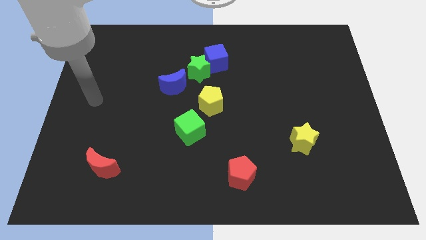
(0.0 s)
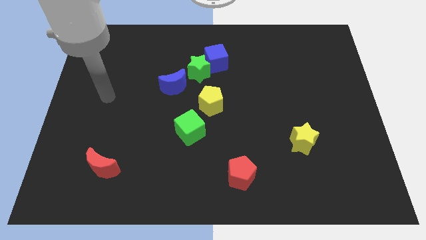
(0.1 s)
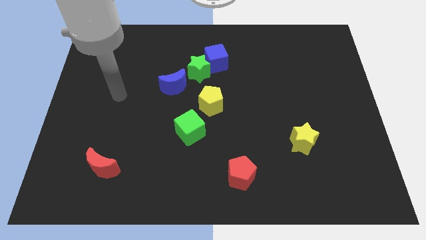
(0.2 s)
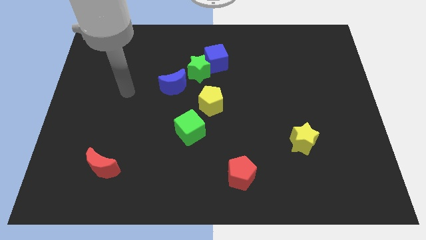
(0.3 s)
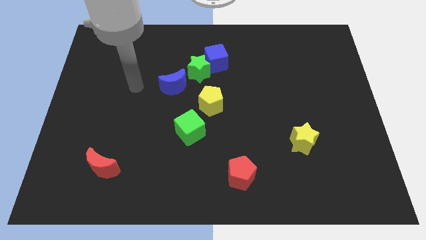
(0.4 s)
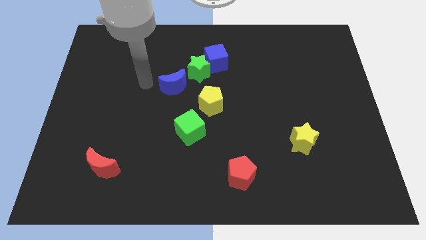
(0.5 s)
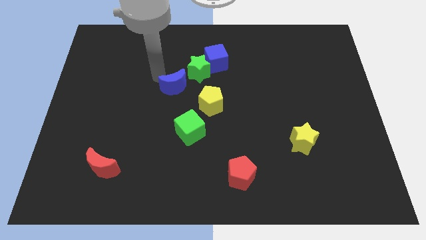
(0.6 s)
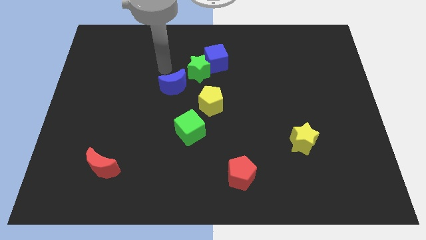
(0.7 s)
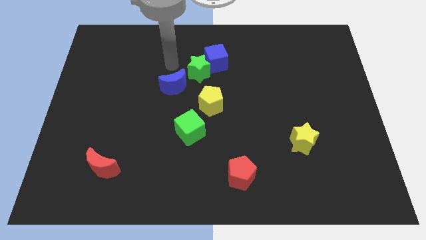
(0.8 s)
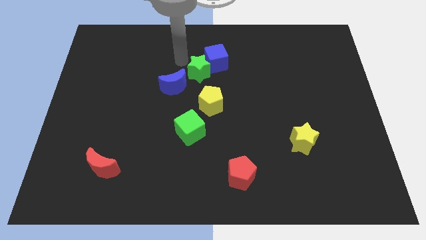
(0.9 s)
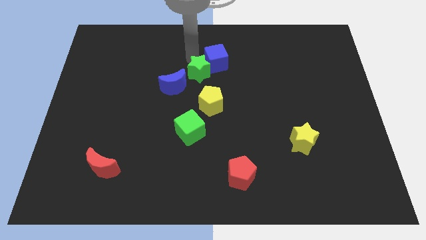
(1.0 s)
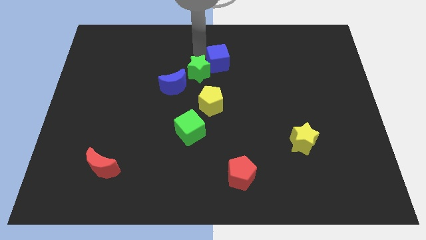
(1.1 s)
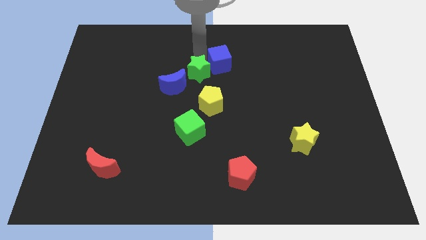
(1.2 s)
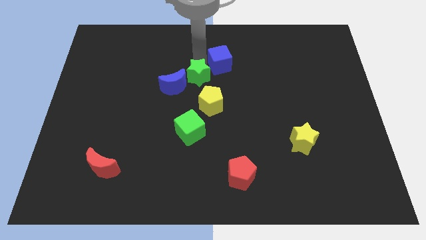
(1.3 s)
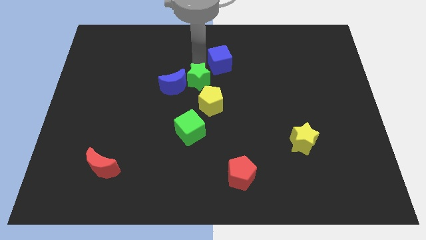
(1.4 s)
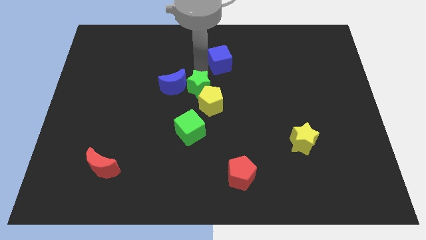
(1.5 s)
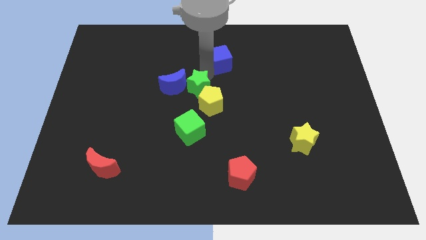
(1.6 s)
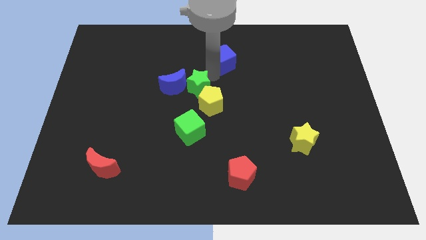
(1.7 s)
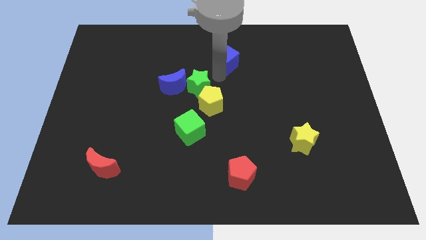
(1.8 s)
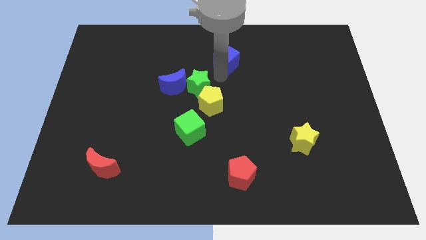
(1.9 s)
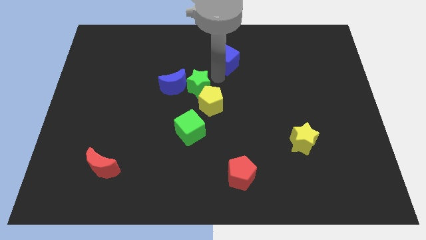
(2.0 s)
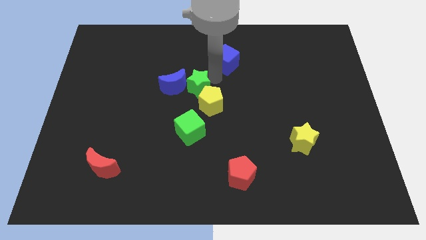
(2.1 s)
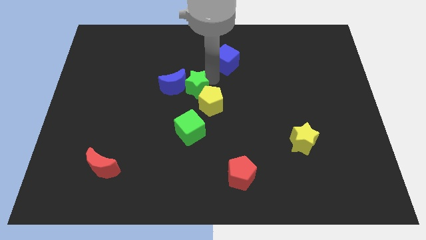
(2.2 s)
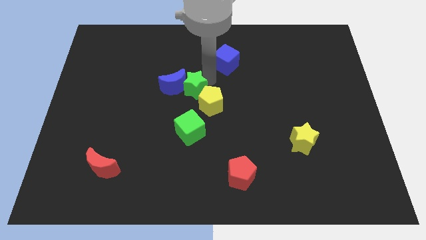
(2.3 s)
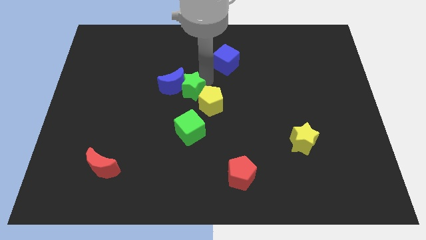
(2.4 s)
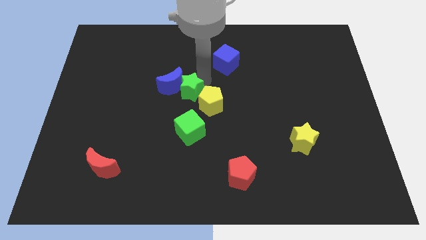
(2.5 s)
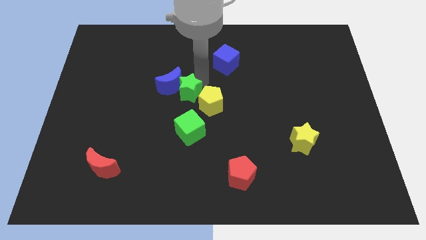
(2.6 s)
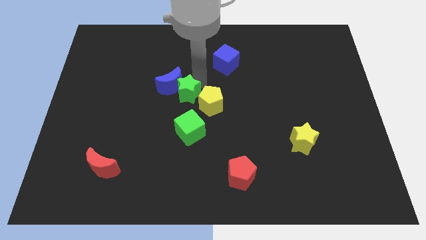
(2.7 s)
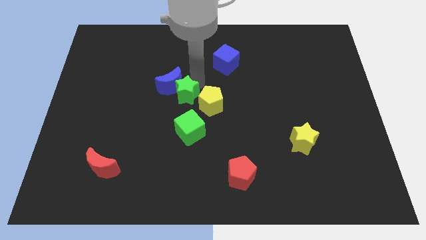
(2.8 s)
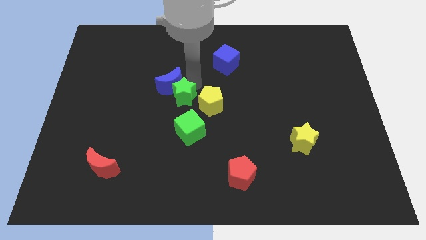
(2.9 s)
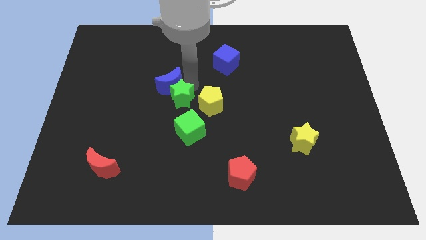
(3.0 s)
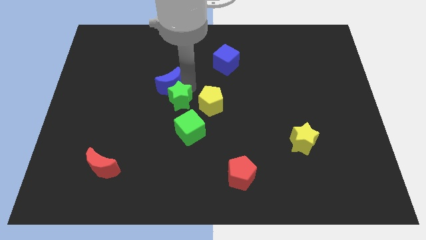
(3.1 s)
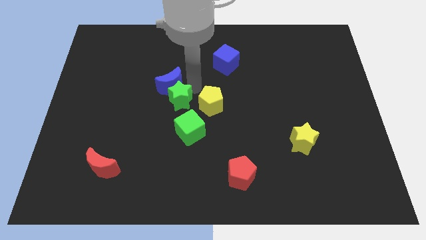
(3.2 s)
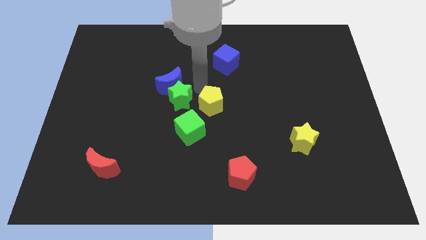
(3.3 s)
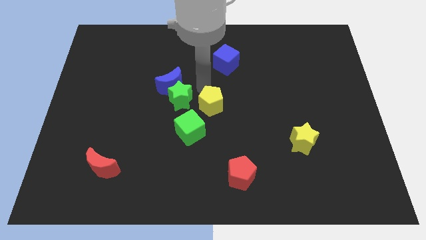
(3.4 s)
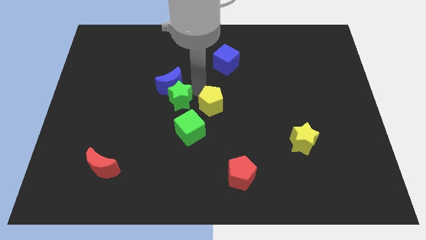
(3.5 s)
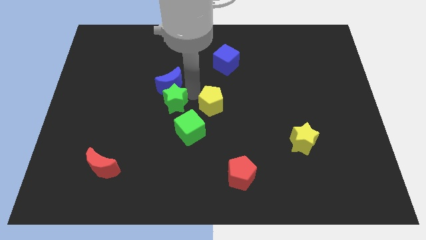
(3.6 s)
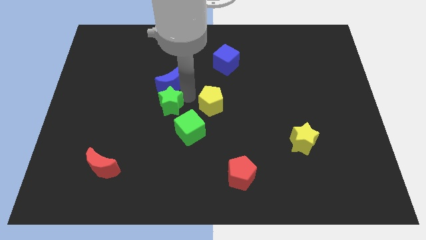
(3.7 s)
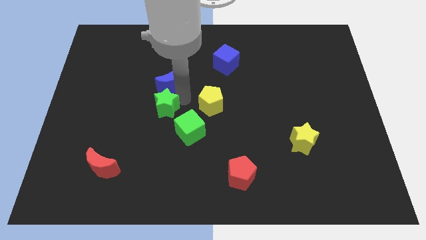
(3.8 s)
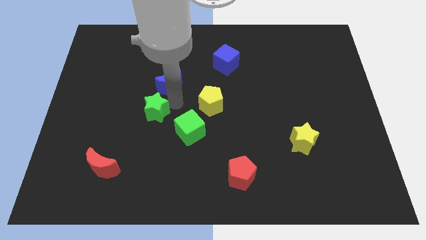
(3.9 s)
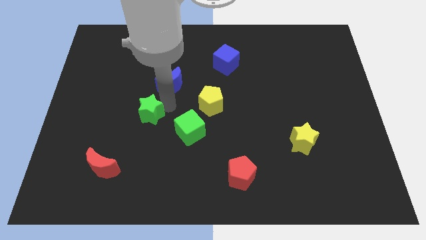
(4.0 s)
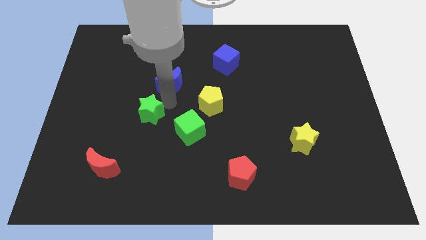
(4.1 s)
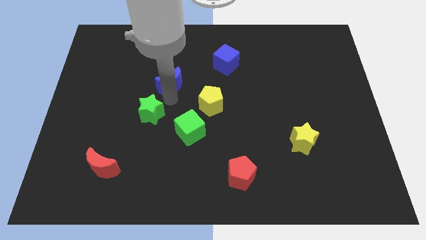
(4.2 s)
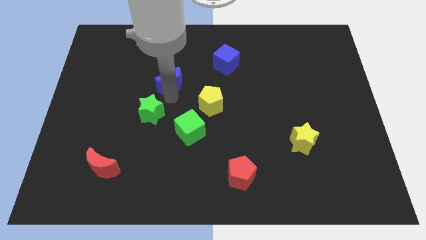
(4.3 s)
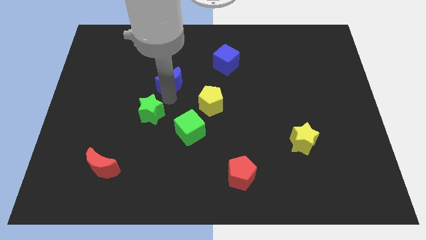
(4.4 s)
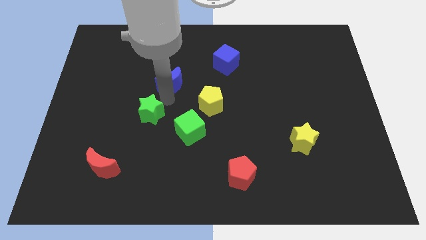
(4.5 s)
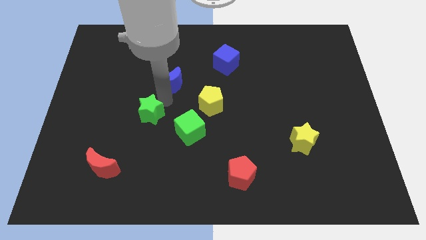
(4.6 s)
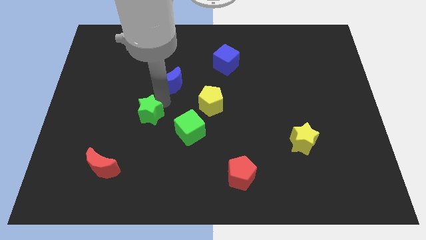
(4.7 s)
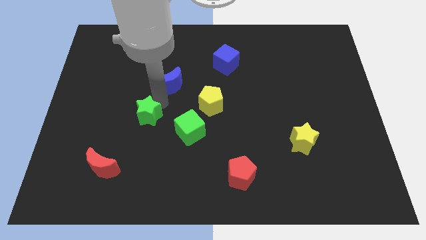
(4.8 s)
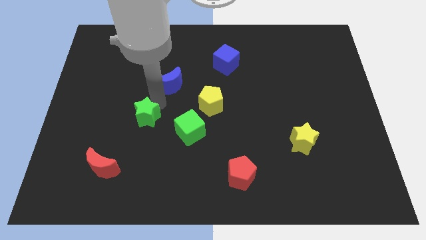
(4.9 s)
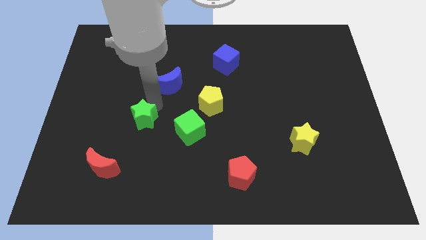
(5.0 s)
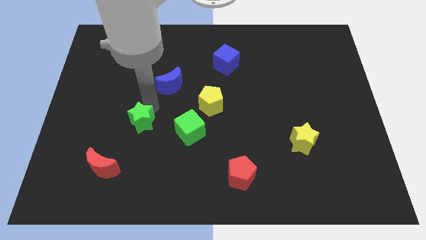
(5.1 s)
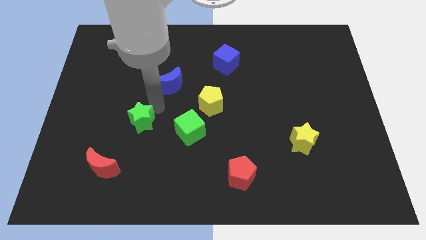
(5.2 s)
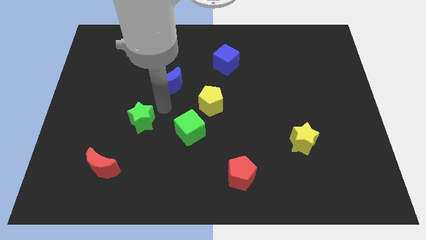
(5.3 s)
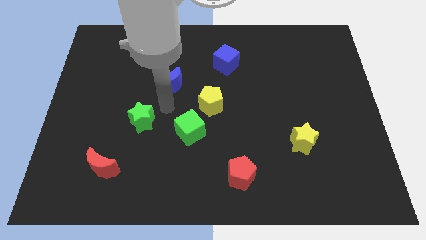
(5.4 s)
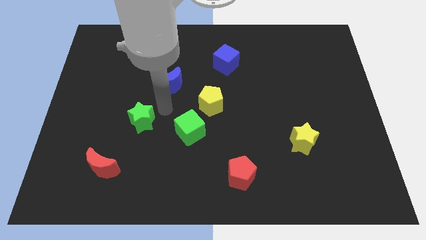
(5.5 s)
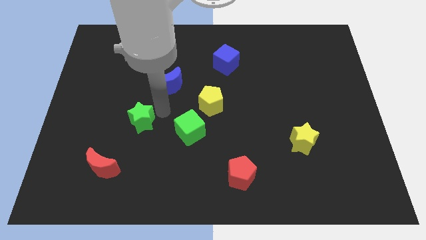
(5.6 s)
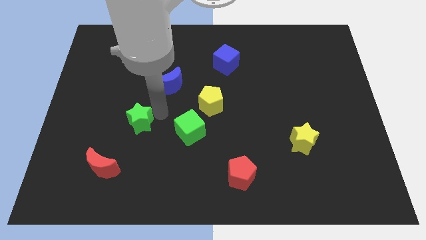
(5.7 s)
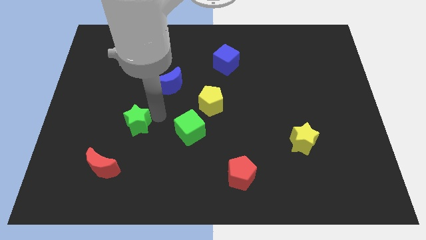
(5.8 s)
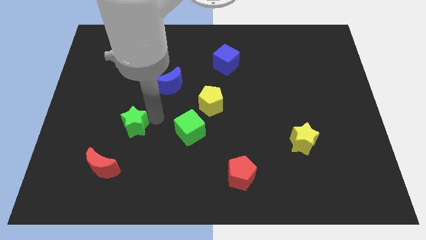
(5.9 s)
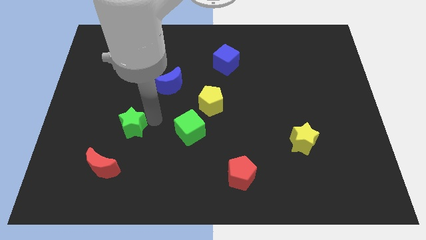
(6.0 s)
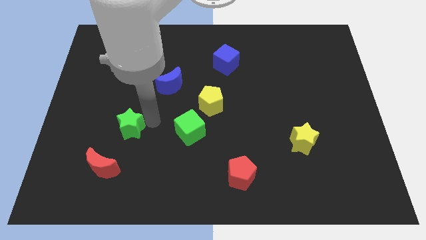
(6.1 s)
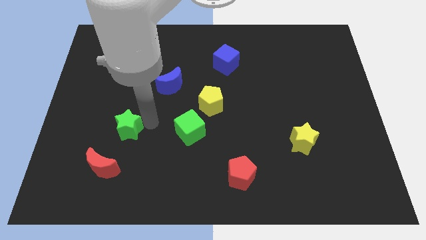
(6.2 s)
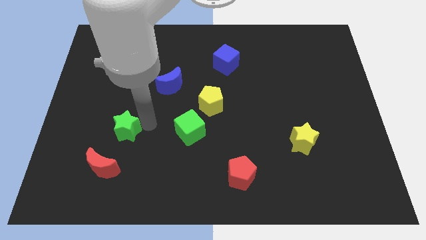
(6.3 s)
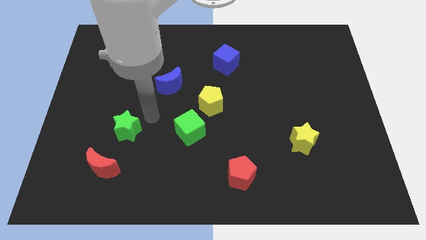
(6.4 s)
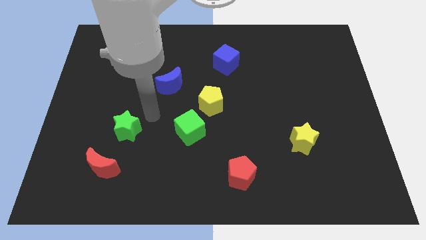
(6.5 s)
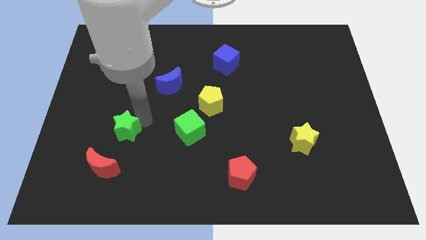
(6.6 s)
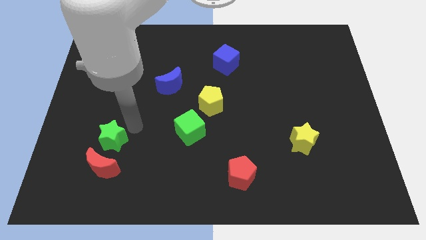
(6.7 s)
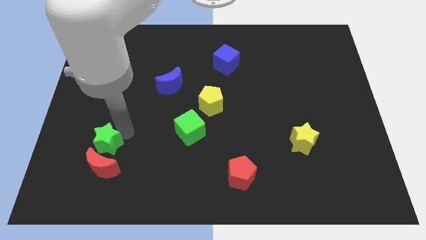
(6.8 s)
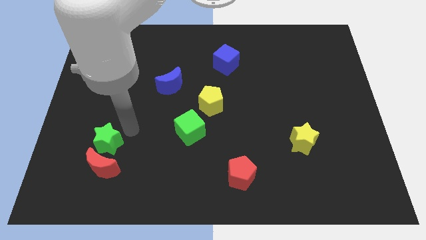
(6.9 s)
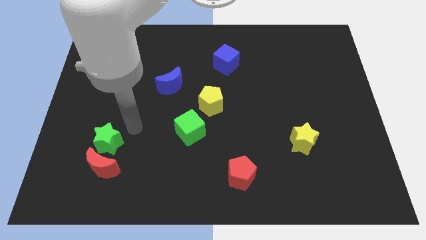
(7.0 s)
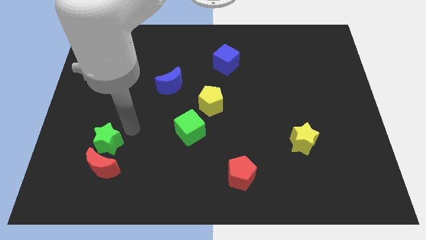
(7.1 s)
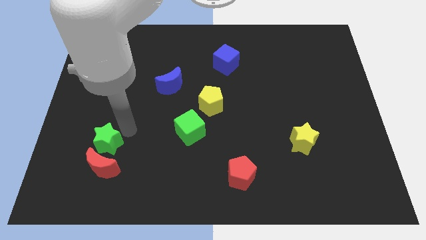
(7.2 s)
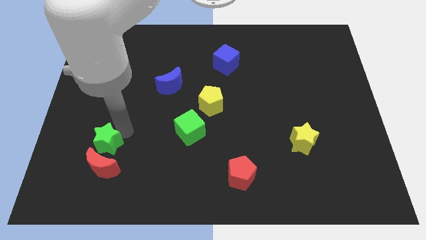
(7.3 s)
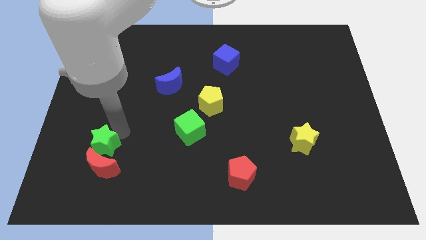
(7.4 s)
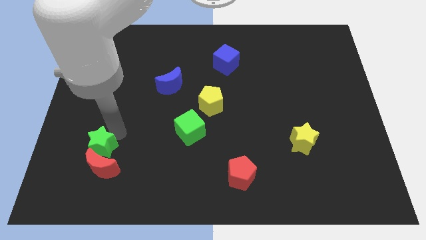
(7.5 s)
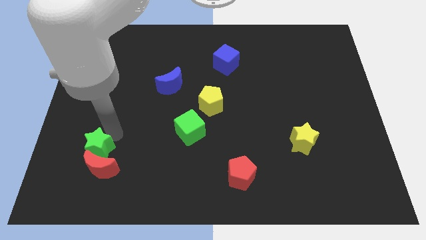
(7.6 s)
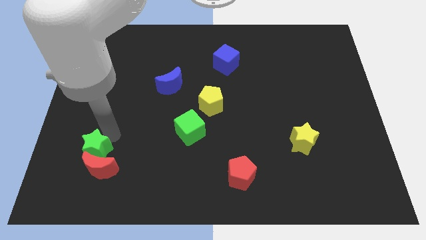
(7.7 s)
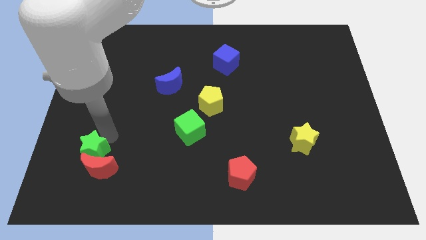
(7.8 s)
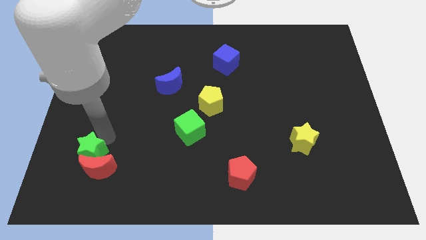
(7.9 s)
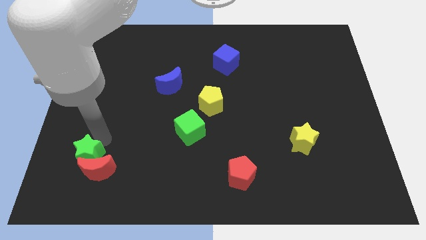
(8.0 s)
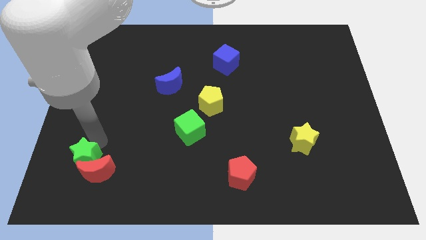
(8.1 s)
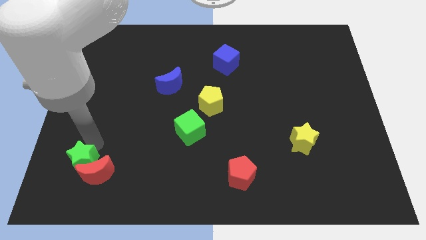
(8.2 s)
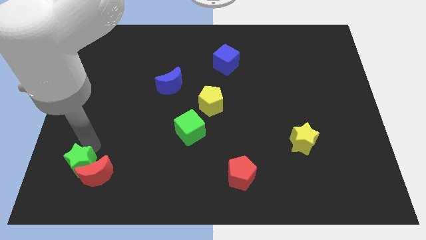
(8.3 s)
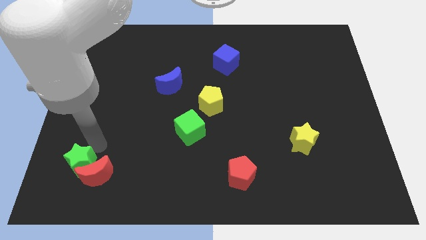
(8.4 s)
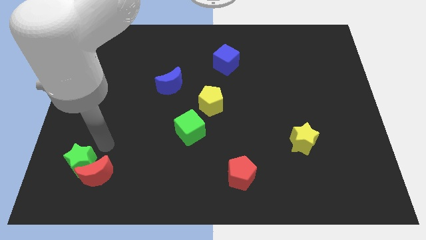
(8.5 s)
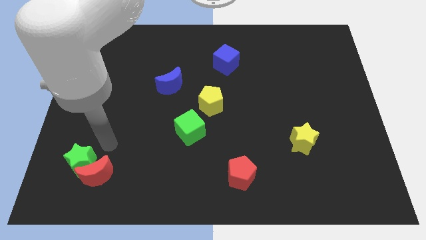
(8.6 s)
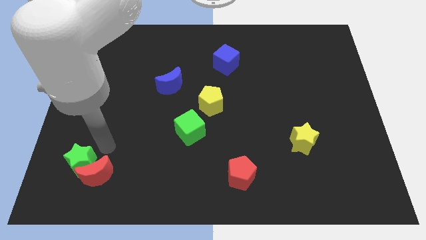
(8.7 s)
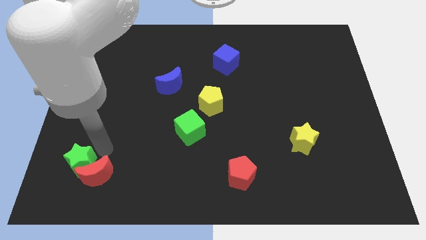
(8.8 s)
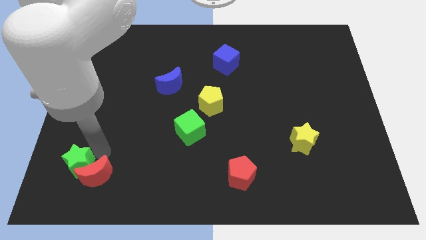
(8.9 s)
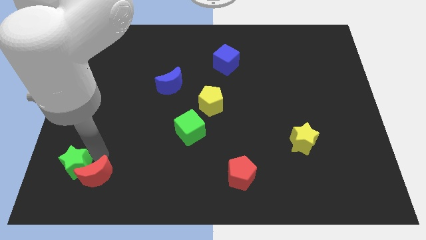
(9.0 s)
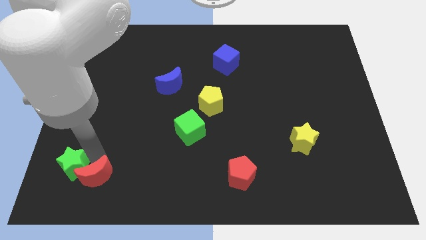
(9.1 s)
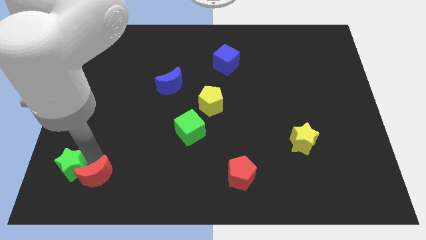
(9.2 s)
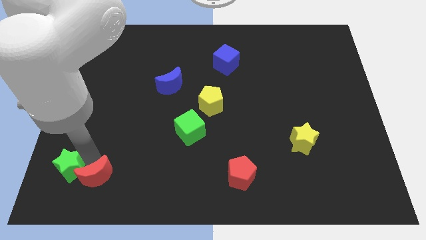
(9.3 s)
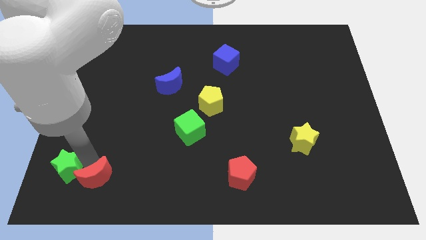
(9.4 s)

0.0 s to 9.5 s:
slide the green star to the bottom left
